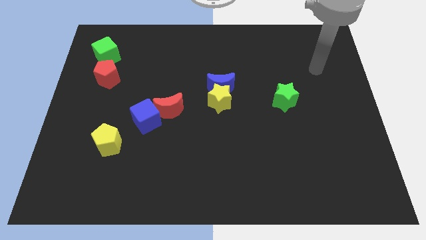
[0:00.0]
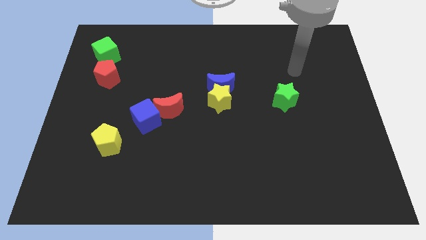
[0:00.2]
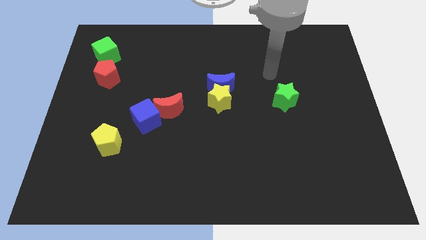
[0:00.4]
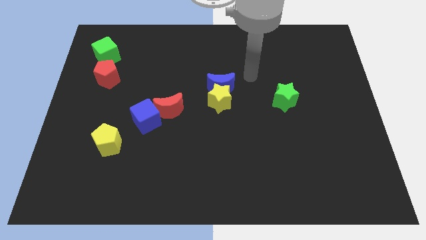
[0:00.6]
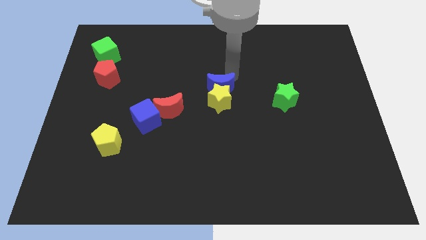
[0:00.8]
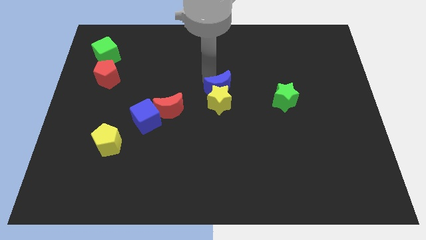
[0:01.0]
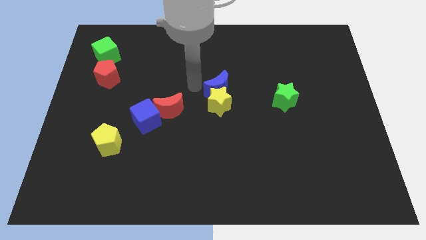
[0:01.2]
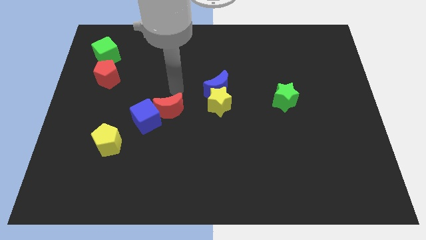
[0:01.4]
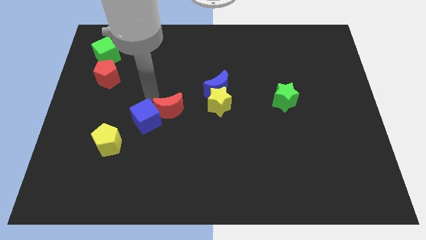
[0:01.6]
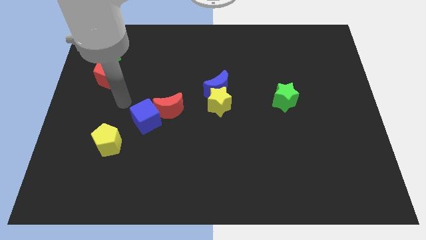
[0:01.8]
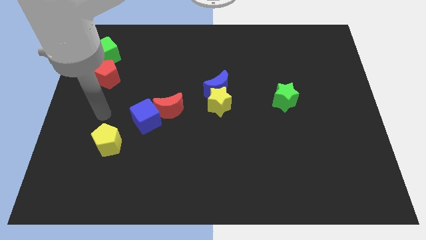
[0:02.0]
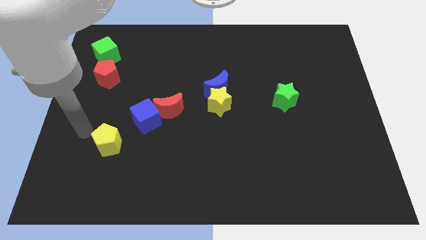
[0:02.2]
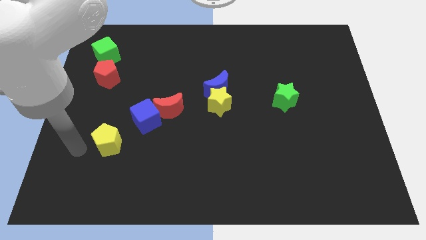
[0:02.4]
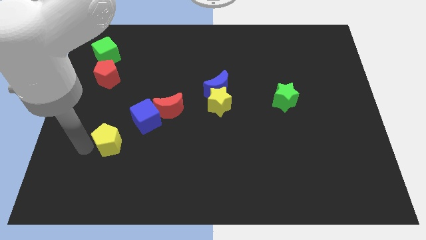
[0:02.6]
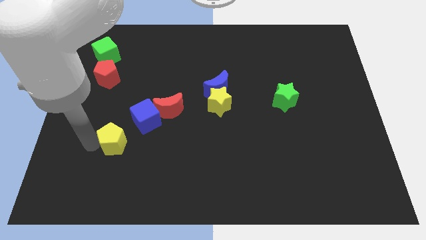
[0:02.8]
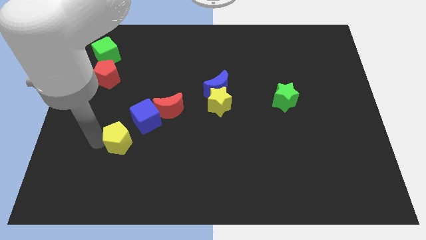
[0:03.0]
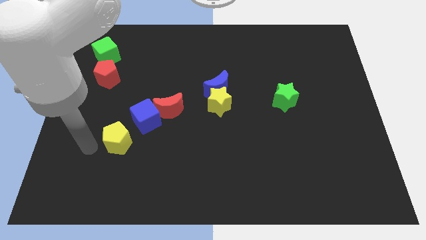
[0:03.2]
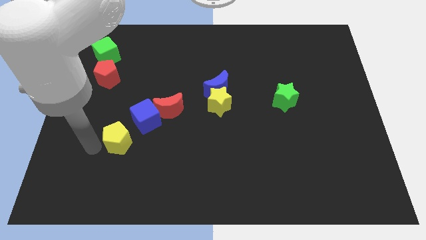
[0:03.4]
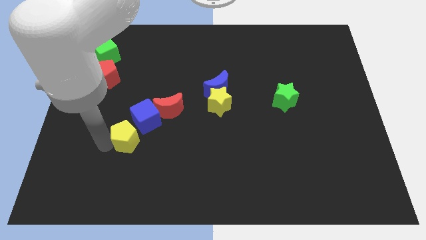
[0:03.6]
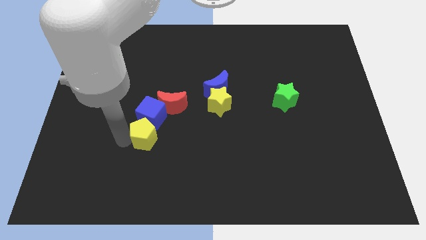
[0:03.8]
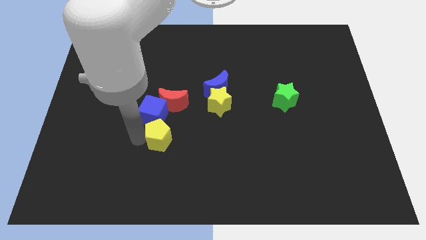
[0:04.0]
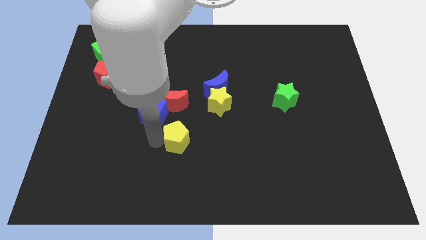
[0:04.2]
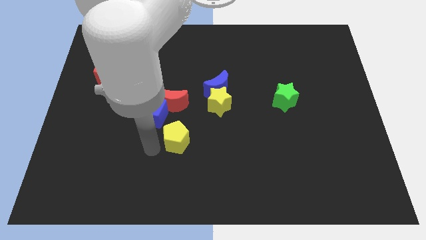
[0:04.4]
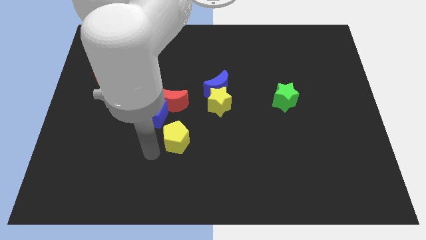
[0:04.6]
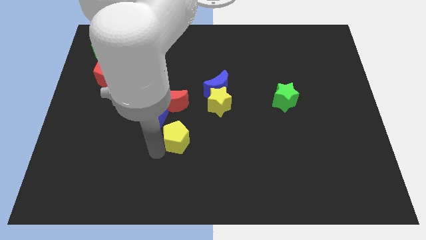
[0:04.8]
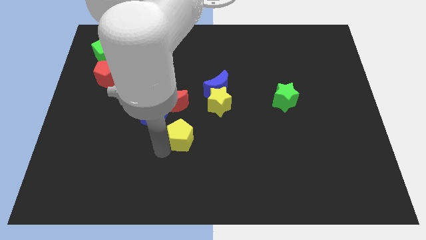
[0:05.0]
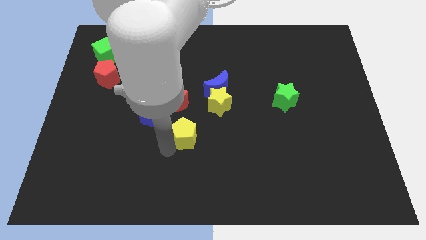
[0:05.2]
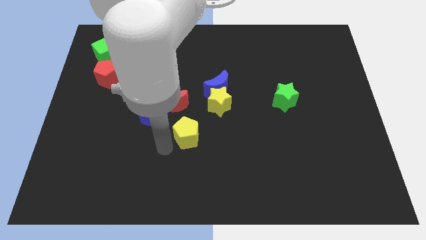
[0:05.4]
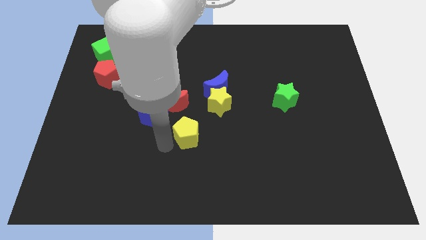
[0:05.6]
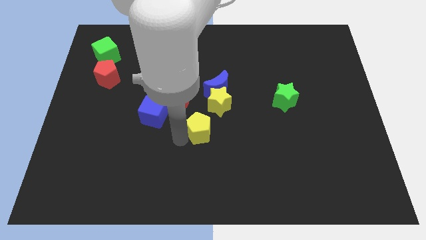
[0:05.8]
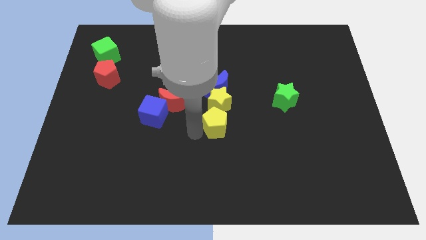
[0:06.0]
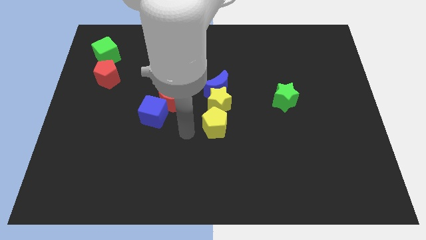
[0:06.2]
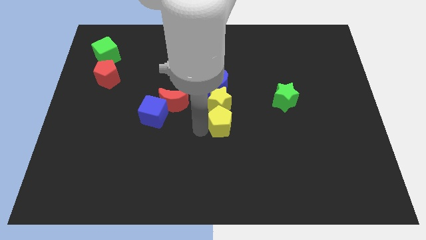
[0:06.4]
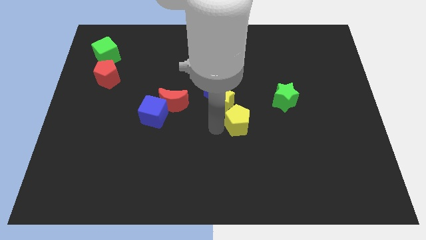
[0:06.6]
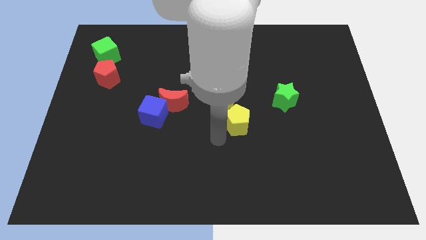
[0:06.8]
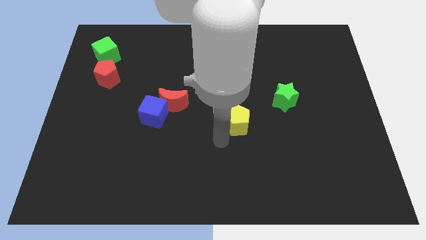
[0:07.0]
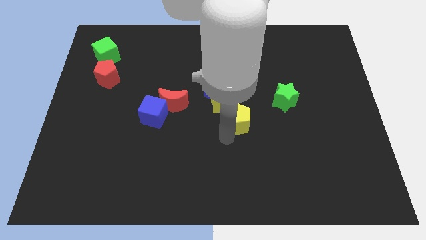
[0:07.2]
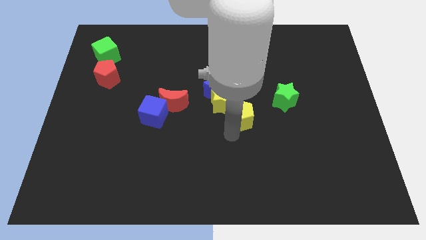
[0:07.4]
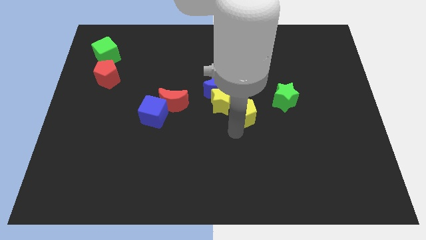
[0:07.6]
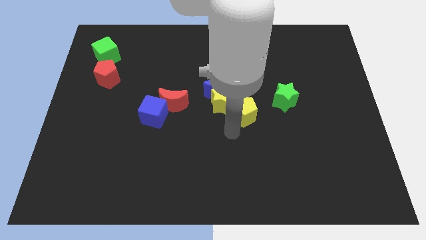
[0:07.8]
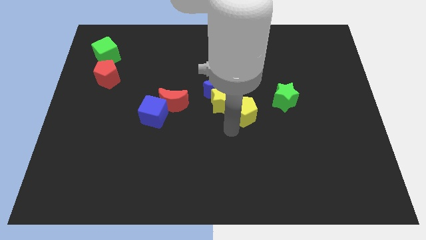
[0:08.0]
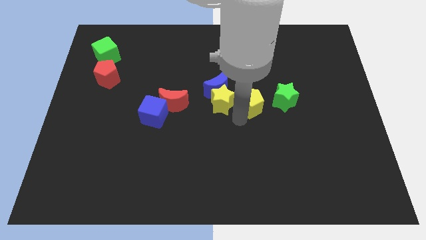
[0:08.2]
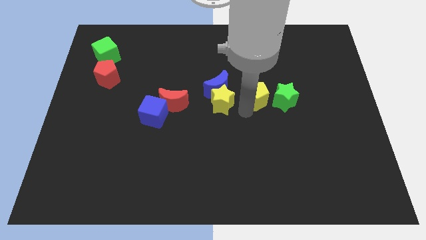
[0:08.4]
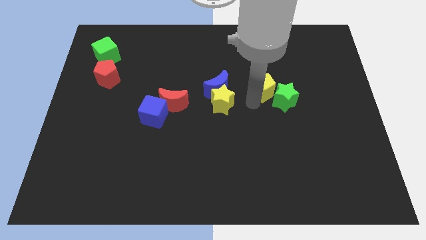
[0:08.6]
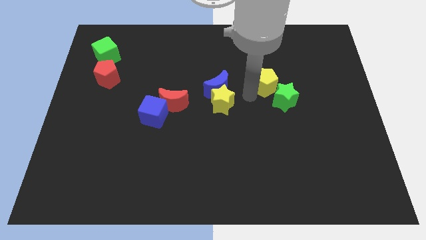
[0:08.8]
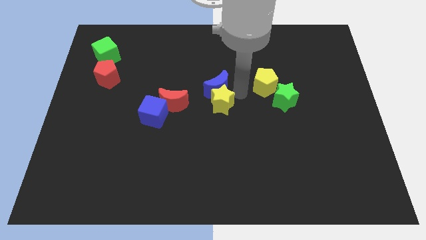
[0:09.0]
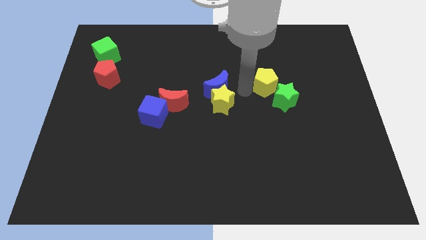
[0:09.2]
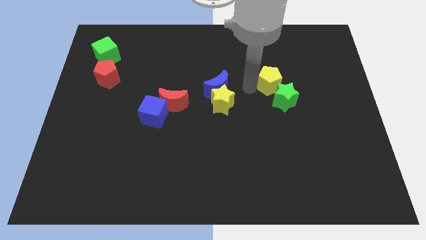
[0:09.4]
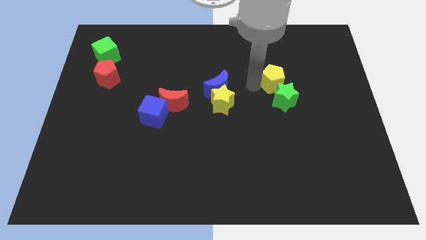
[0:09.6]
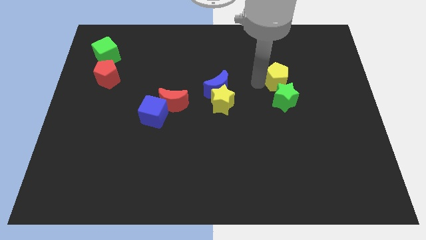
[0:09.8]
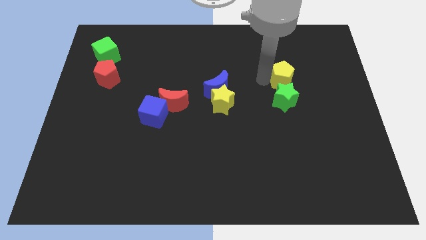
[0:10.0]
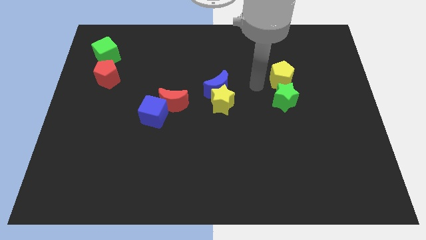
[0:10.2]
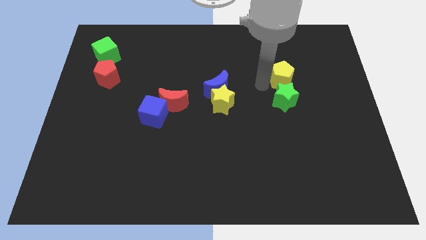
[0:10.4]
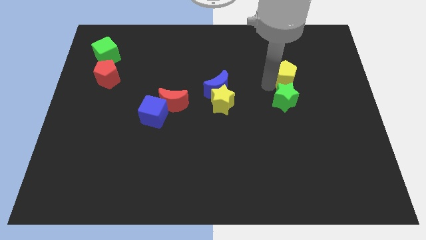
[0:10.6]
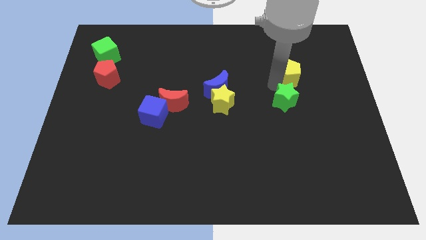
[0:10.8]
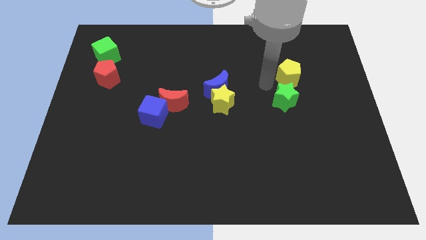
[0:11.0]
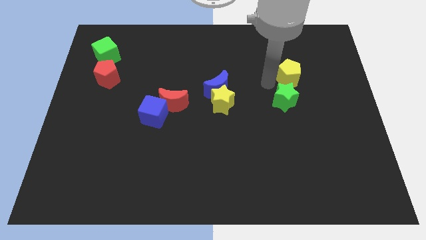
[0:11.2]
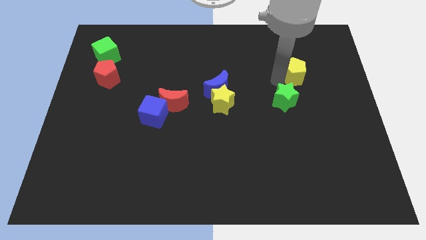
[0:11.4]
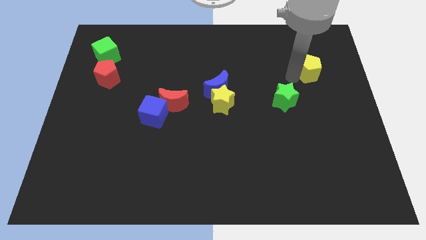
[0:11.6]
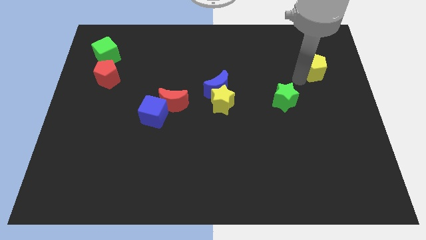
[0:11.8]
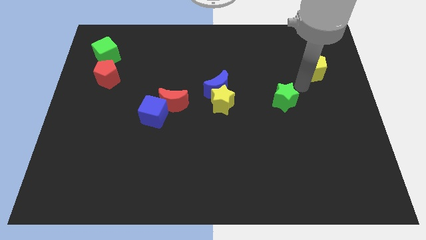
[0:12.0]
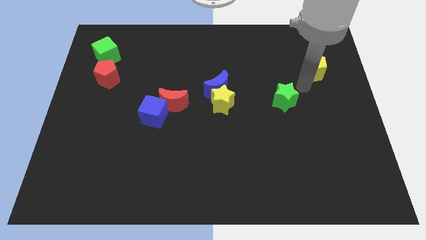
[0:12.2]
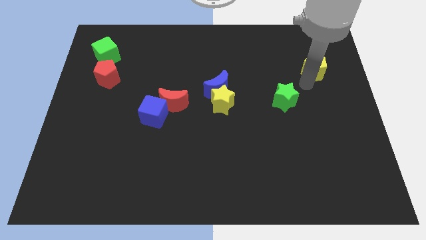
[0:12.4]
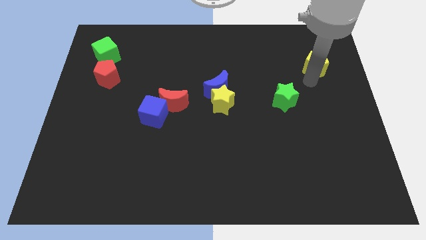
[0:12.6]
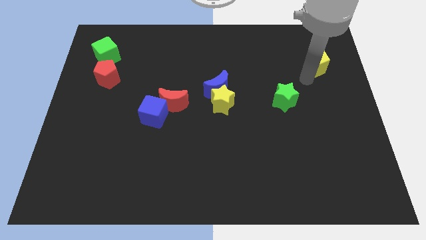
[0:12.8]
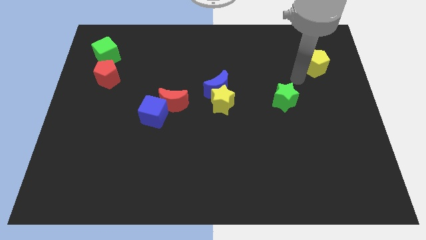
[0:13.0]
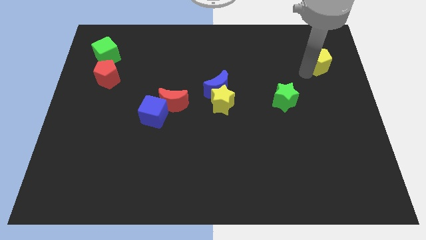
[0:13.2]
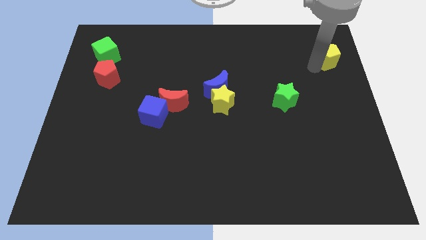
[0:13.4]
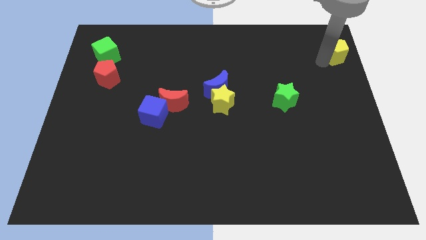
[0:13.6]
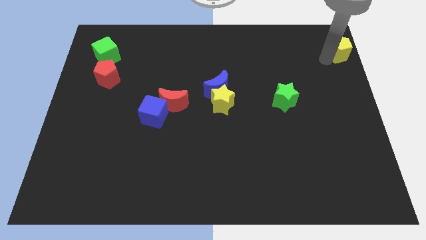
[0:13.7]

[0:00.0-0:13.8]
put the yellow pentagon to the upper right corner
